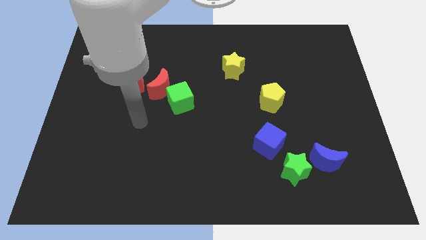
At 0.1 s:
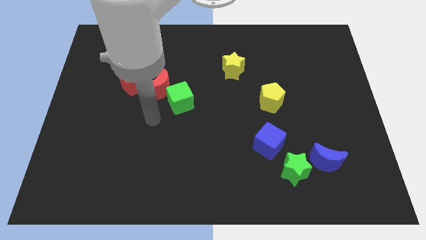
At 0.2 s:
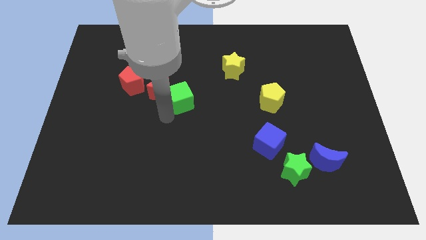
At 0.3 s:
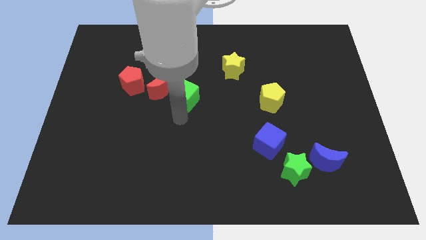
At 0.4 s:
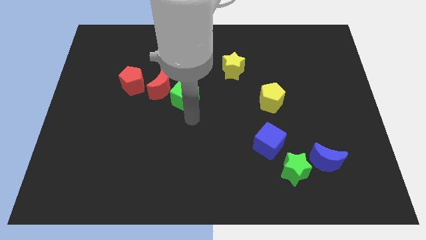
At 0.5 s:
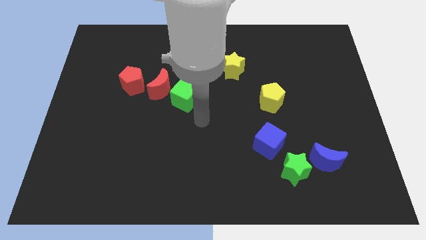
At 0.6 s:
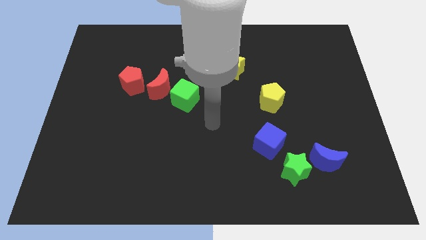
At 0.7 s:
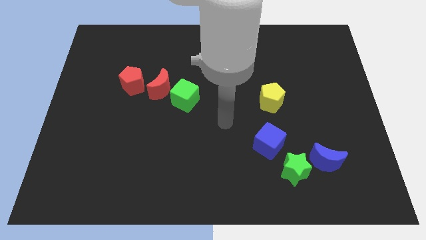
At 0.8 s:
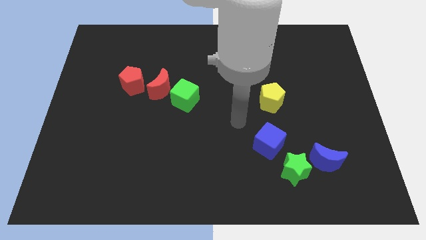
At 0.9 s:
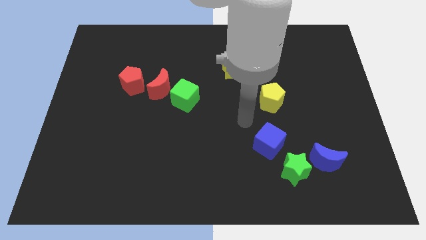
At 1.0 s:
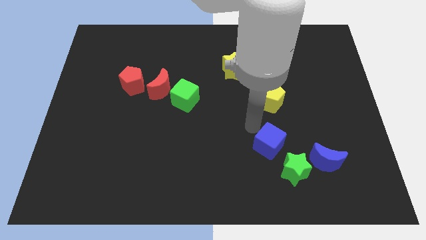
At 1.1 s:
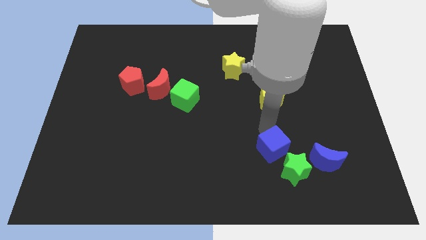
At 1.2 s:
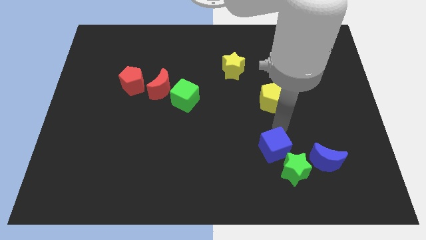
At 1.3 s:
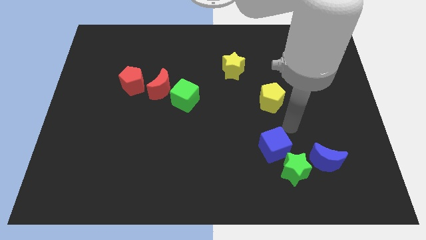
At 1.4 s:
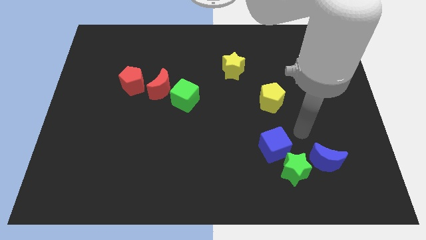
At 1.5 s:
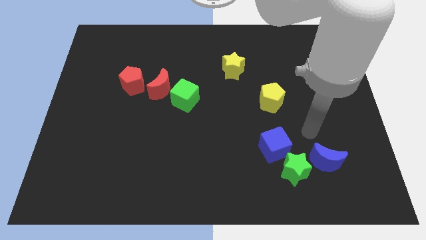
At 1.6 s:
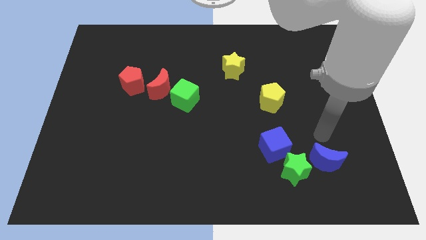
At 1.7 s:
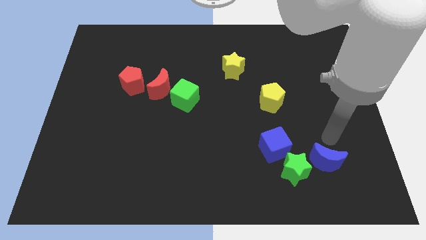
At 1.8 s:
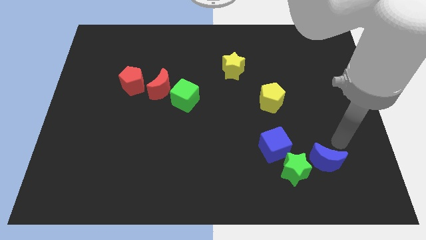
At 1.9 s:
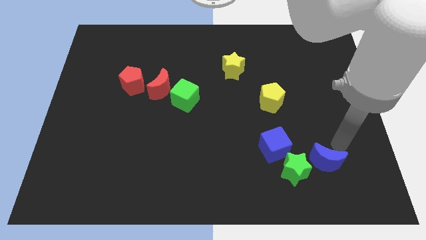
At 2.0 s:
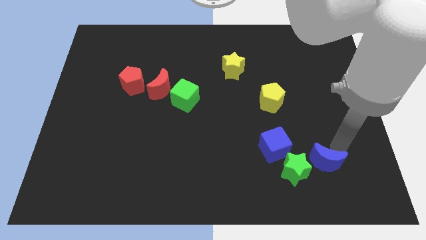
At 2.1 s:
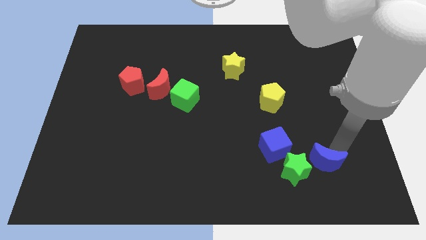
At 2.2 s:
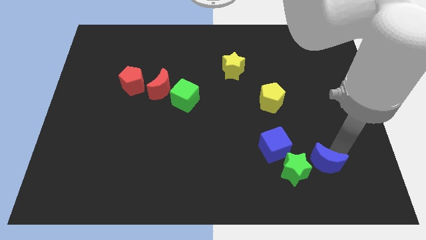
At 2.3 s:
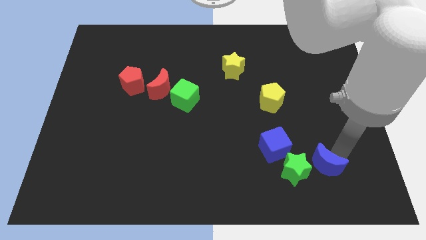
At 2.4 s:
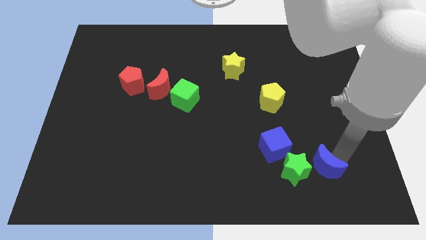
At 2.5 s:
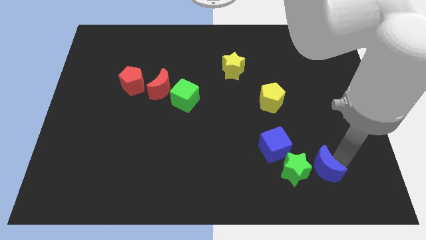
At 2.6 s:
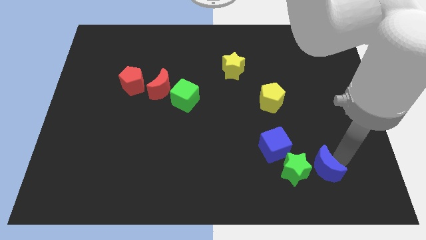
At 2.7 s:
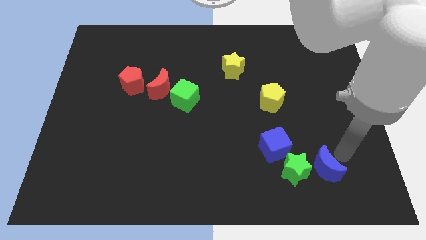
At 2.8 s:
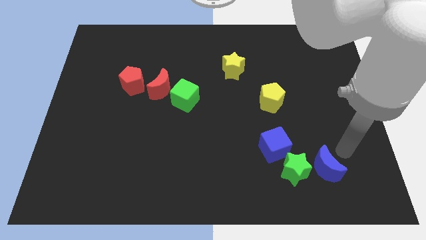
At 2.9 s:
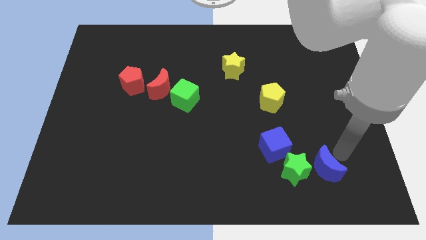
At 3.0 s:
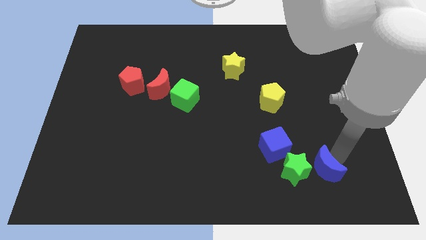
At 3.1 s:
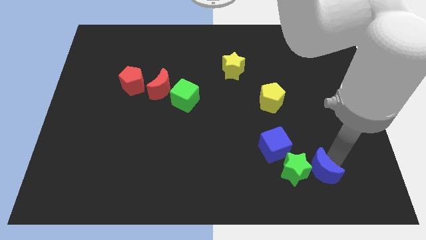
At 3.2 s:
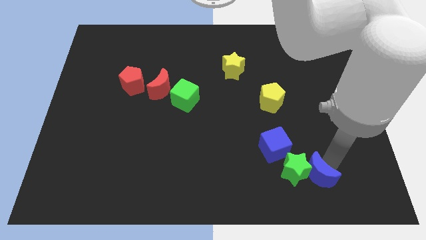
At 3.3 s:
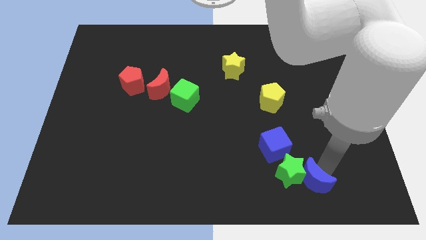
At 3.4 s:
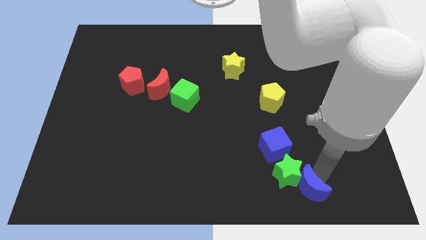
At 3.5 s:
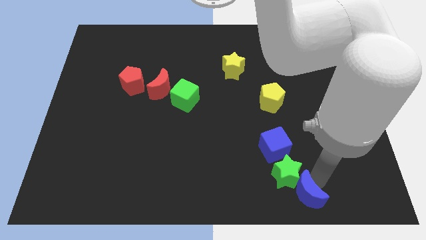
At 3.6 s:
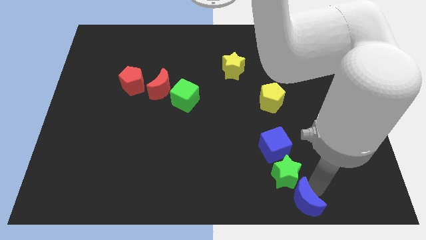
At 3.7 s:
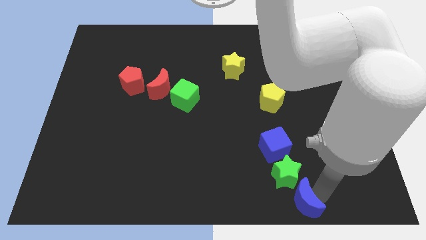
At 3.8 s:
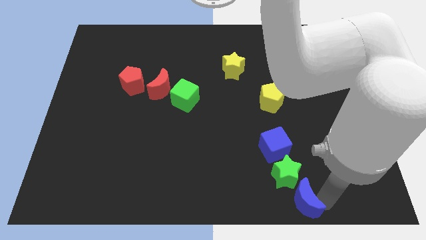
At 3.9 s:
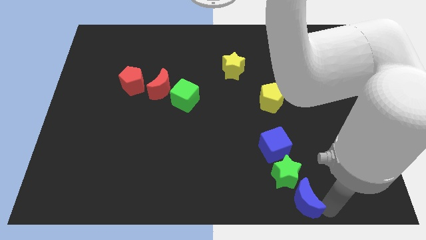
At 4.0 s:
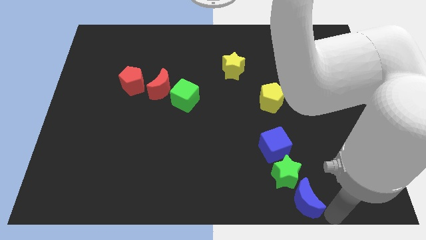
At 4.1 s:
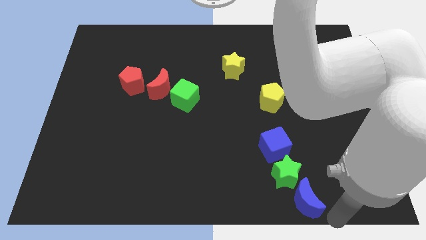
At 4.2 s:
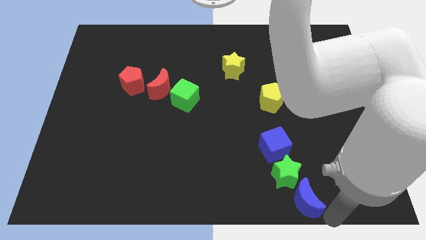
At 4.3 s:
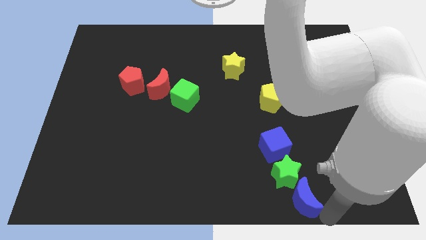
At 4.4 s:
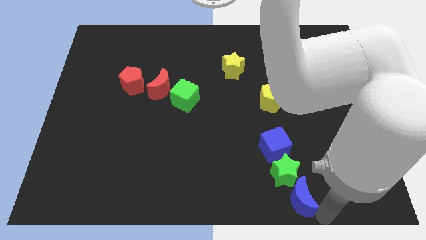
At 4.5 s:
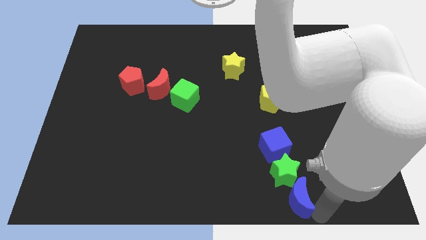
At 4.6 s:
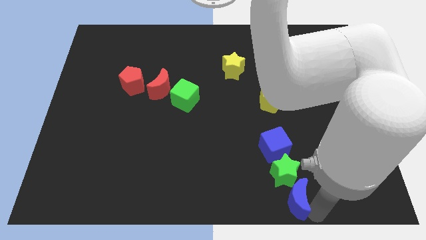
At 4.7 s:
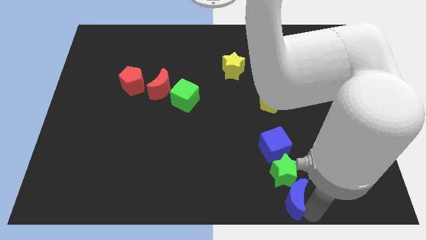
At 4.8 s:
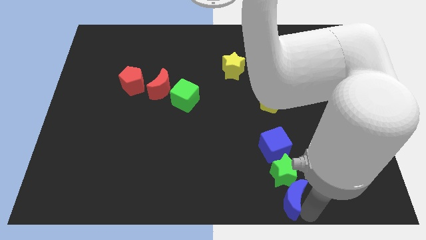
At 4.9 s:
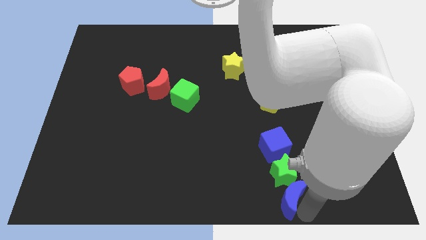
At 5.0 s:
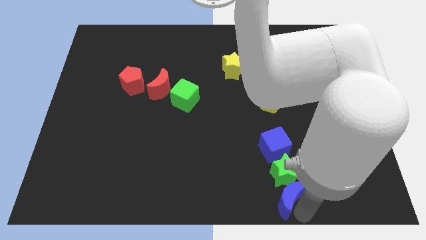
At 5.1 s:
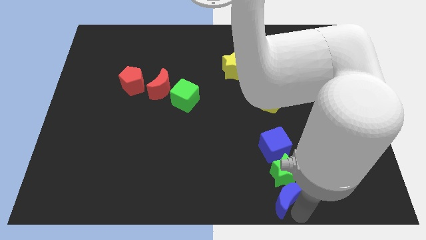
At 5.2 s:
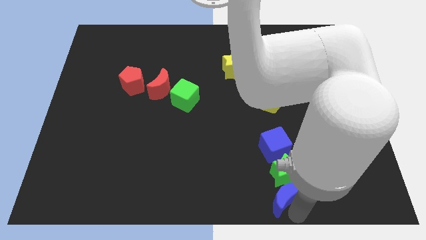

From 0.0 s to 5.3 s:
slide the blue moon to the left somewhat

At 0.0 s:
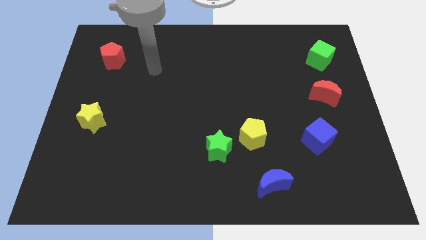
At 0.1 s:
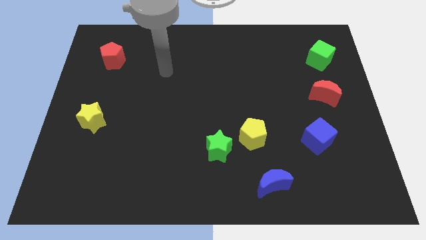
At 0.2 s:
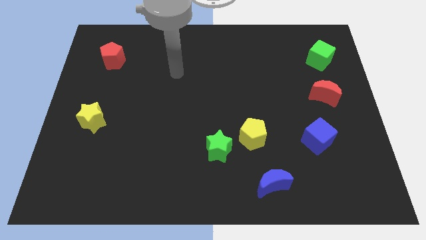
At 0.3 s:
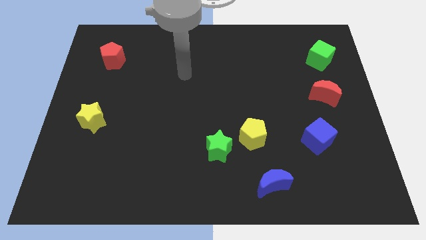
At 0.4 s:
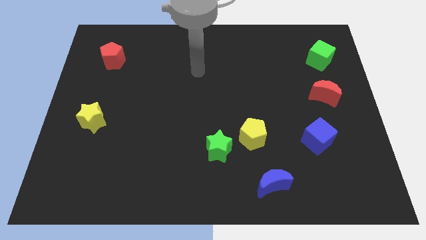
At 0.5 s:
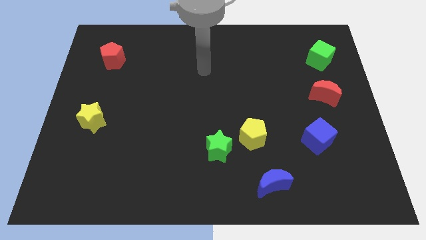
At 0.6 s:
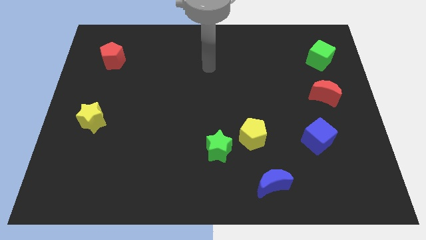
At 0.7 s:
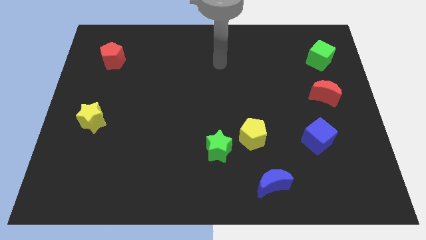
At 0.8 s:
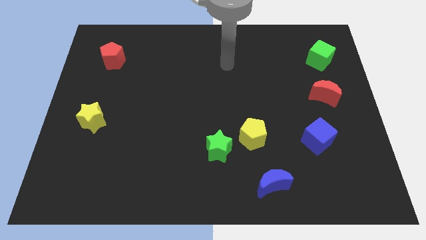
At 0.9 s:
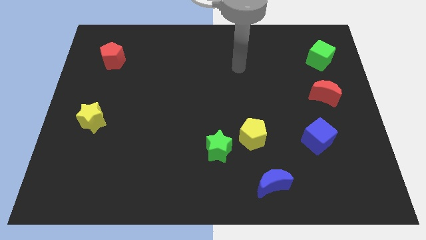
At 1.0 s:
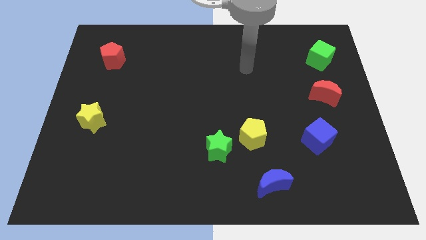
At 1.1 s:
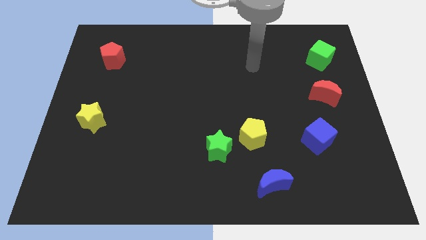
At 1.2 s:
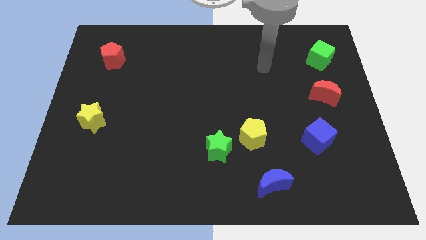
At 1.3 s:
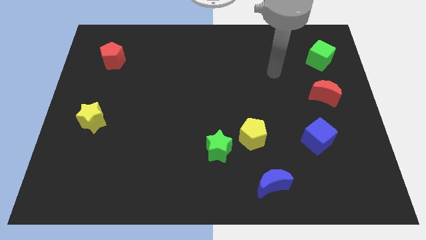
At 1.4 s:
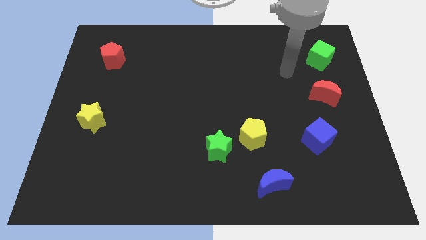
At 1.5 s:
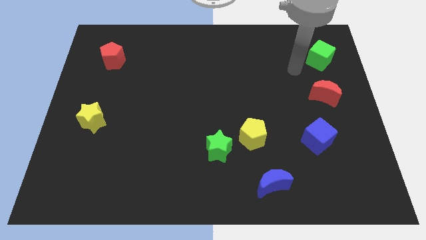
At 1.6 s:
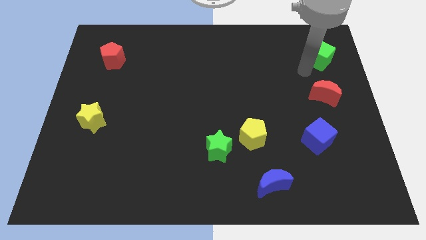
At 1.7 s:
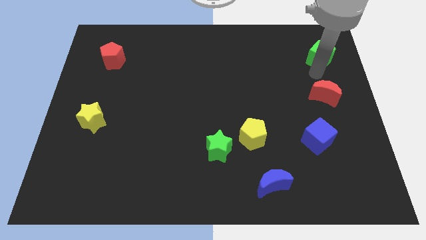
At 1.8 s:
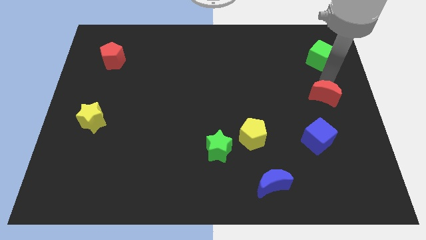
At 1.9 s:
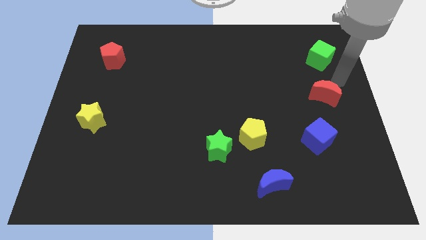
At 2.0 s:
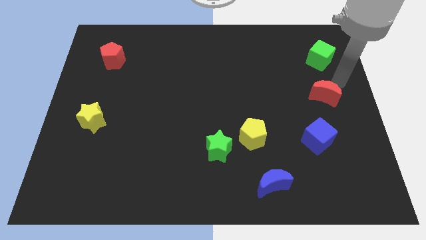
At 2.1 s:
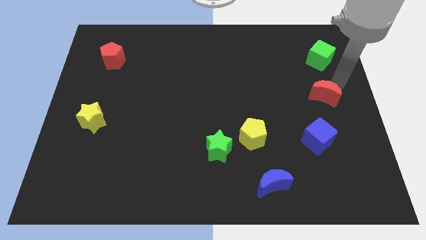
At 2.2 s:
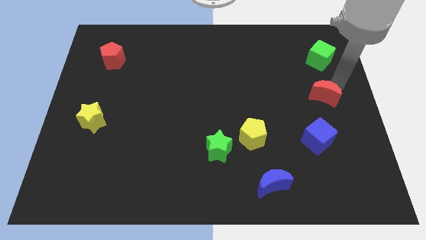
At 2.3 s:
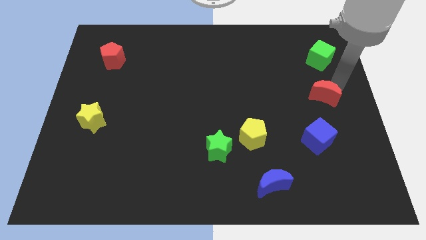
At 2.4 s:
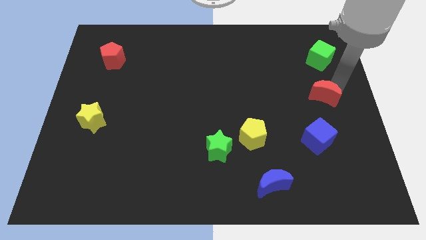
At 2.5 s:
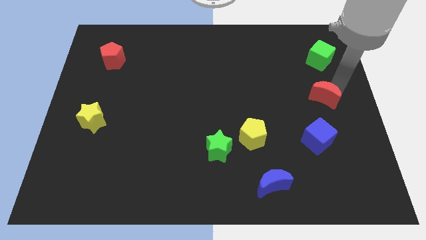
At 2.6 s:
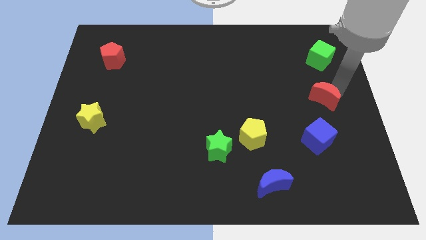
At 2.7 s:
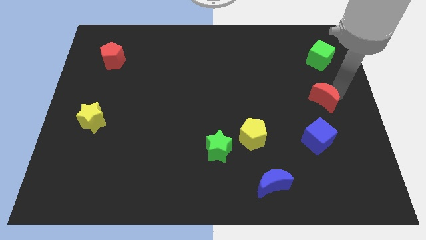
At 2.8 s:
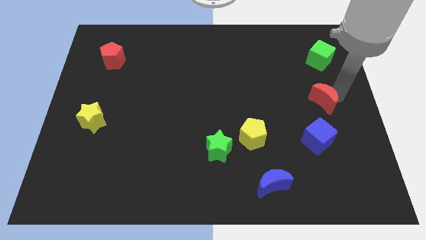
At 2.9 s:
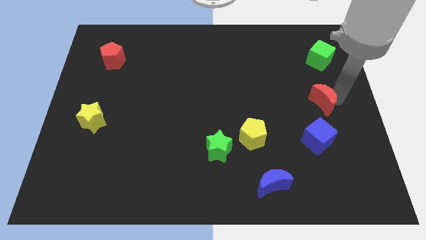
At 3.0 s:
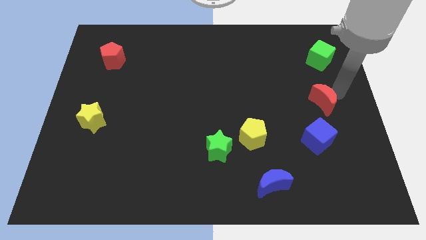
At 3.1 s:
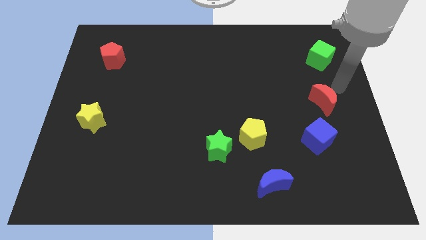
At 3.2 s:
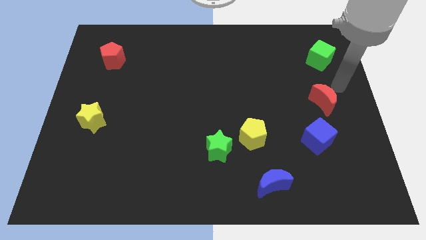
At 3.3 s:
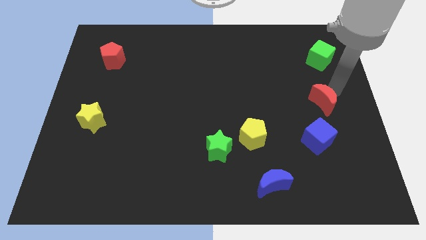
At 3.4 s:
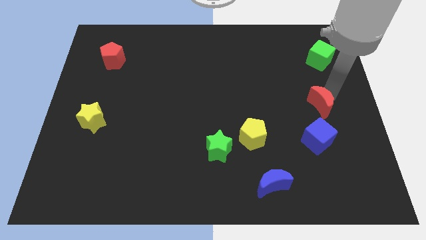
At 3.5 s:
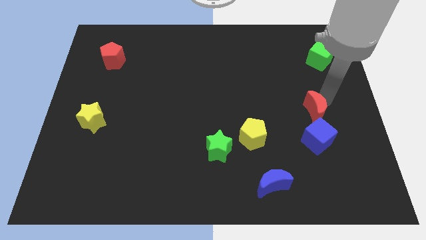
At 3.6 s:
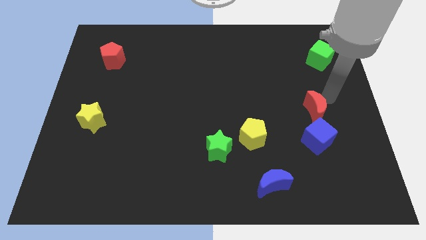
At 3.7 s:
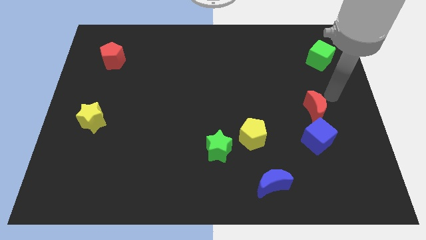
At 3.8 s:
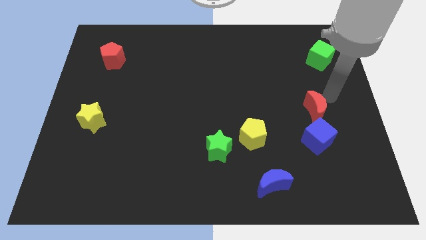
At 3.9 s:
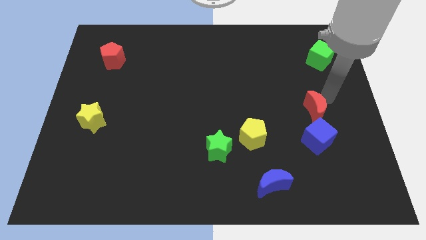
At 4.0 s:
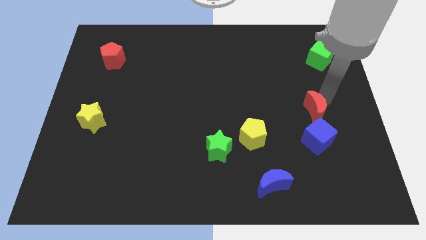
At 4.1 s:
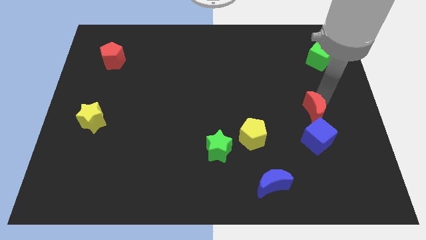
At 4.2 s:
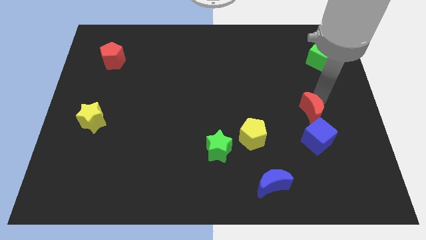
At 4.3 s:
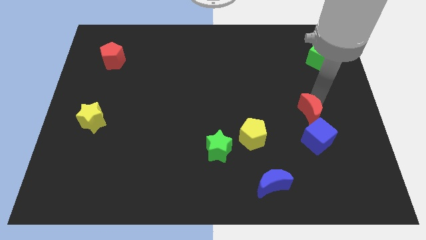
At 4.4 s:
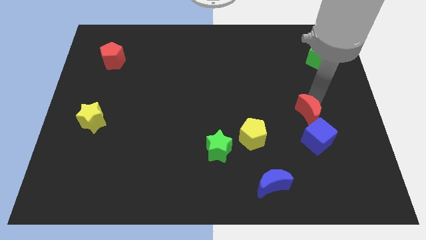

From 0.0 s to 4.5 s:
slide the red moon downwards and left somewhat
